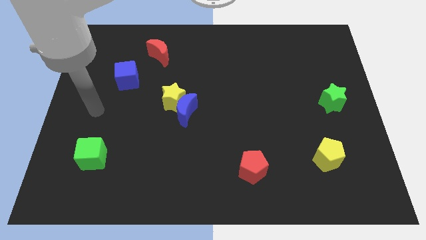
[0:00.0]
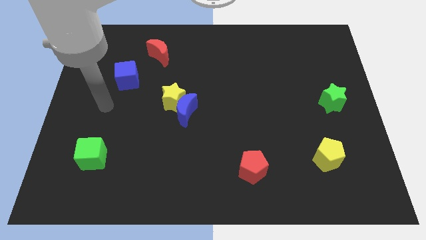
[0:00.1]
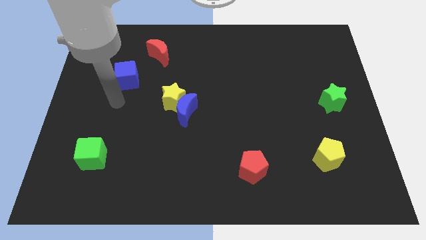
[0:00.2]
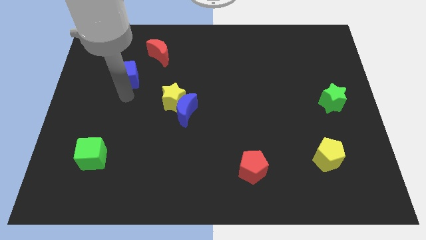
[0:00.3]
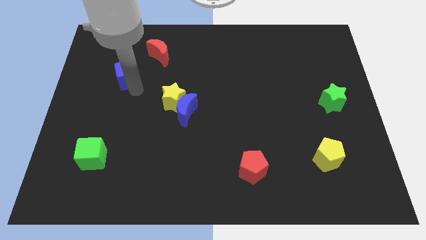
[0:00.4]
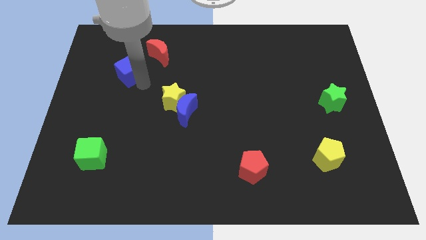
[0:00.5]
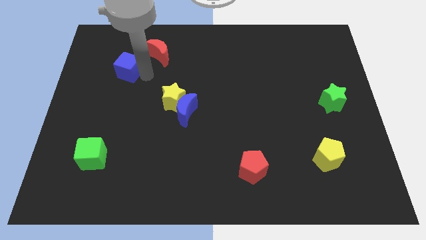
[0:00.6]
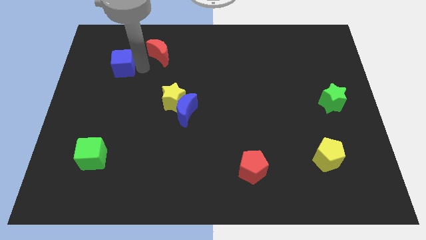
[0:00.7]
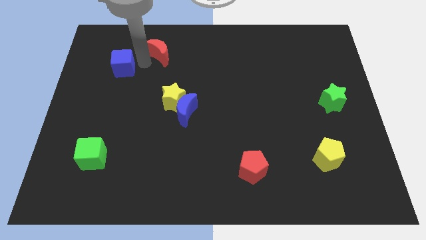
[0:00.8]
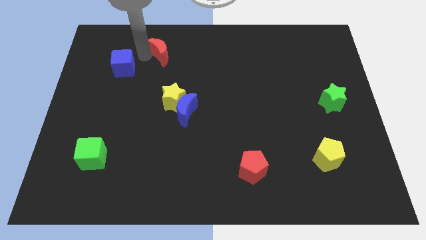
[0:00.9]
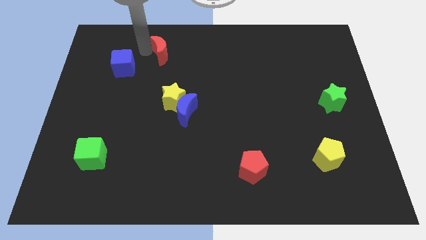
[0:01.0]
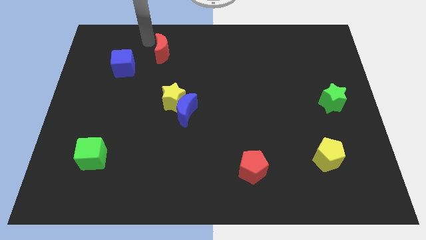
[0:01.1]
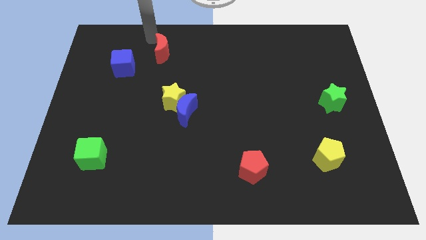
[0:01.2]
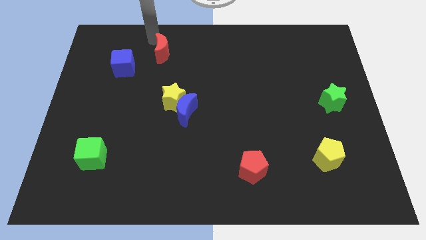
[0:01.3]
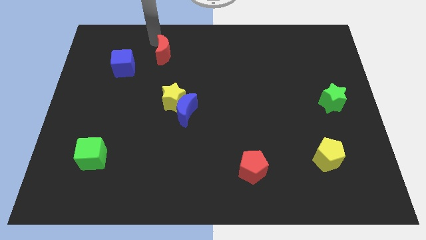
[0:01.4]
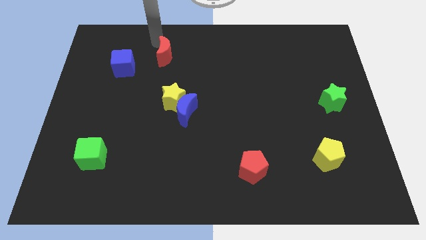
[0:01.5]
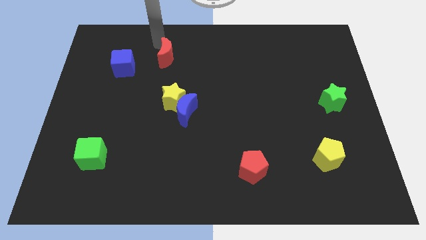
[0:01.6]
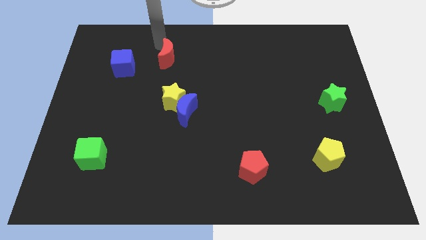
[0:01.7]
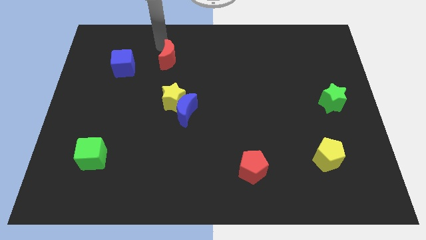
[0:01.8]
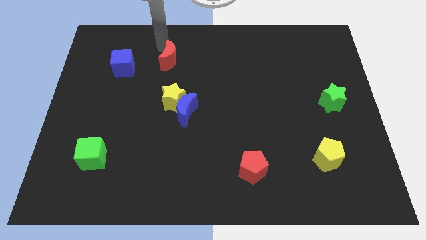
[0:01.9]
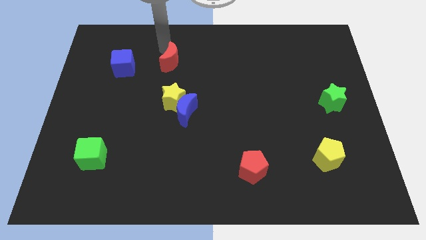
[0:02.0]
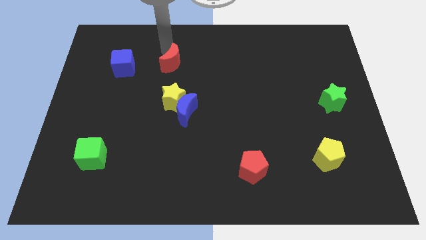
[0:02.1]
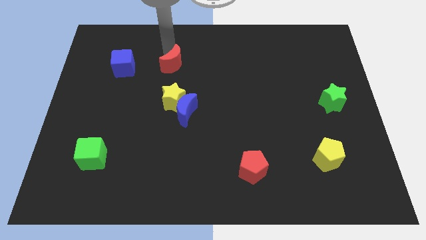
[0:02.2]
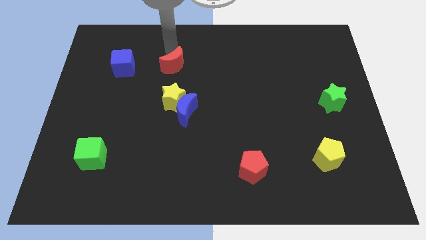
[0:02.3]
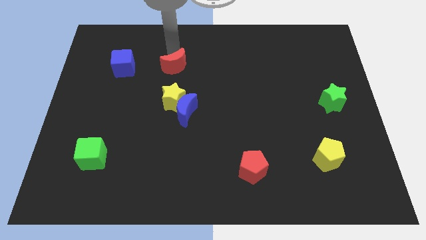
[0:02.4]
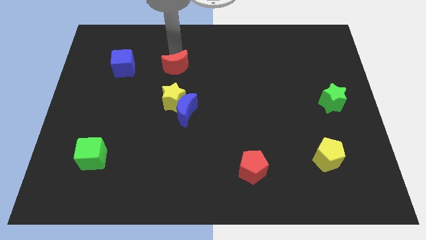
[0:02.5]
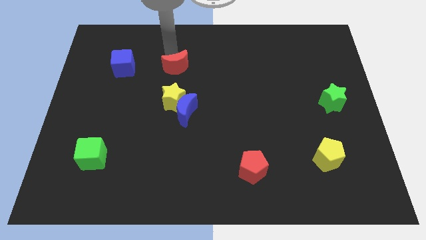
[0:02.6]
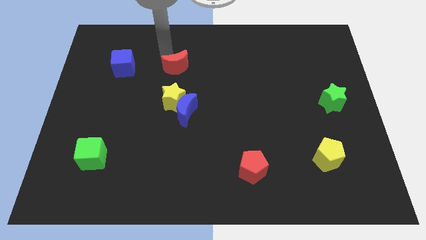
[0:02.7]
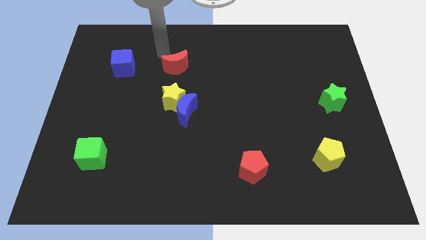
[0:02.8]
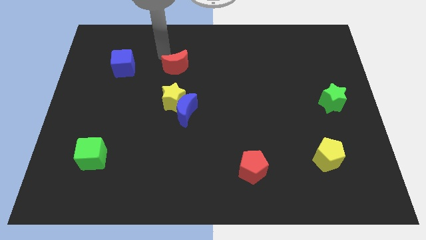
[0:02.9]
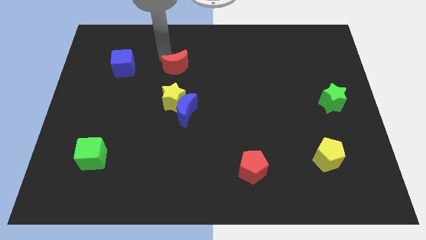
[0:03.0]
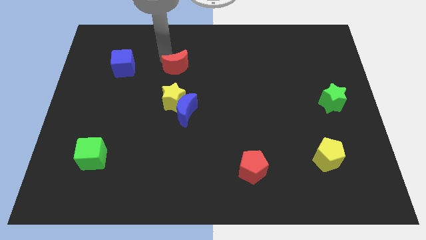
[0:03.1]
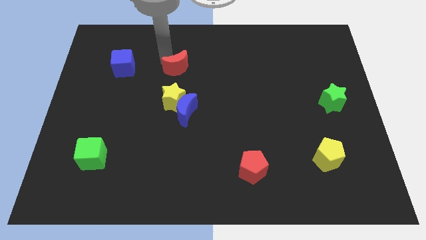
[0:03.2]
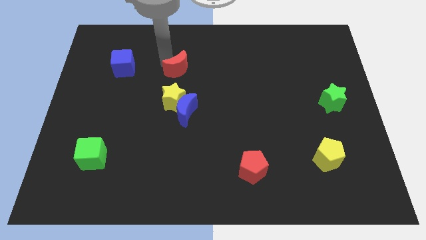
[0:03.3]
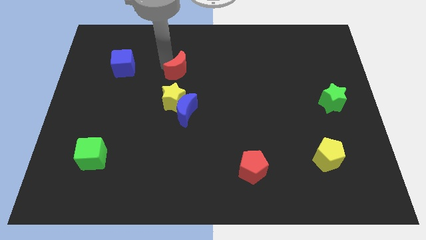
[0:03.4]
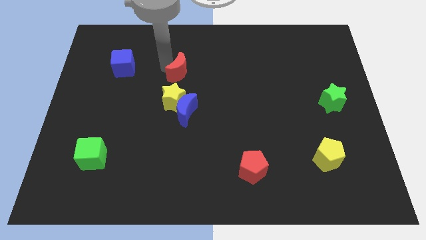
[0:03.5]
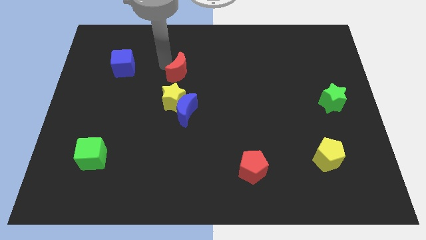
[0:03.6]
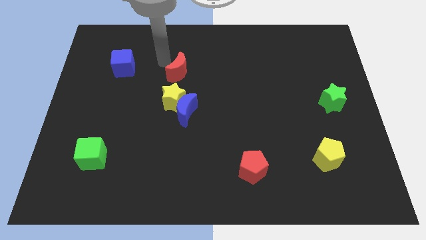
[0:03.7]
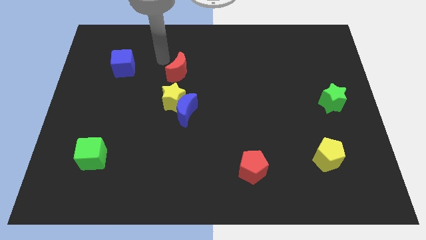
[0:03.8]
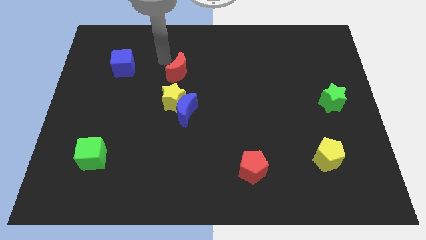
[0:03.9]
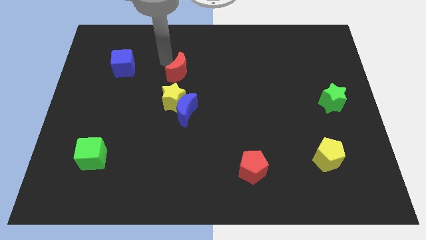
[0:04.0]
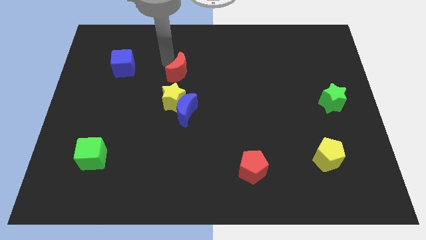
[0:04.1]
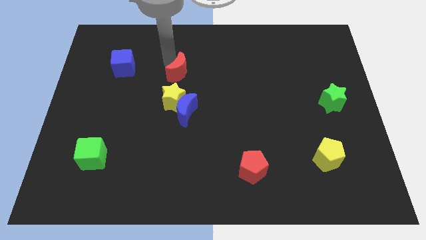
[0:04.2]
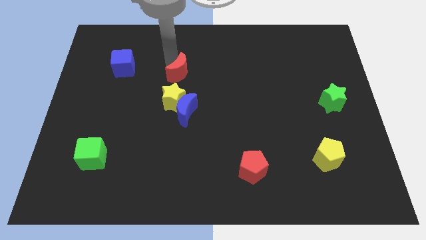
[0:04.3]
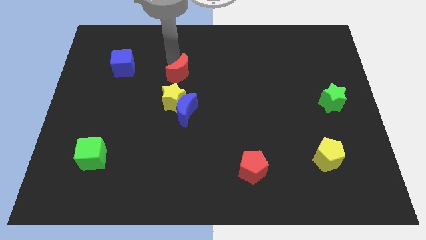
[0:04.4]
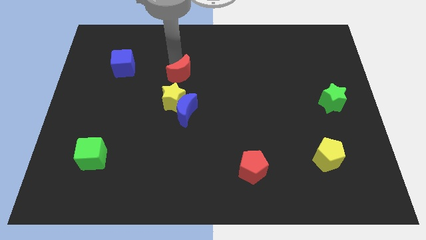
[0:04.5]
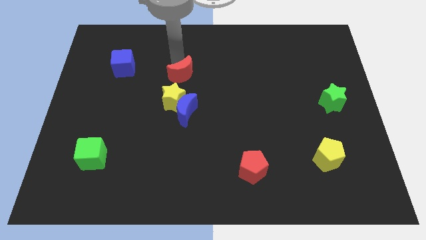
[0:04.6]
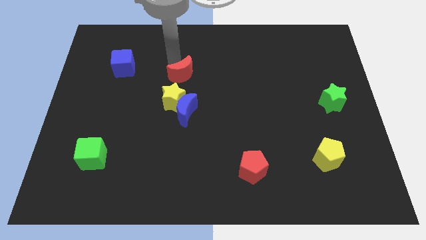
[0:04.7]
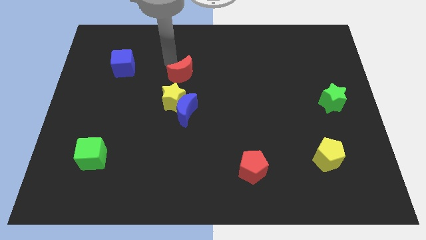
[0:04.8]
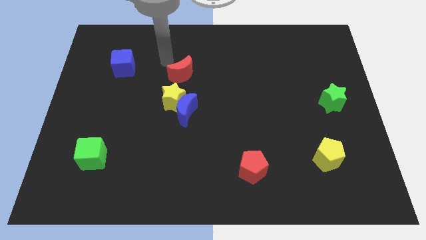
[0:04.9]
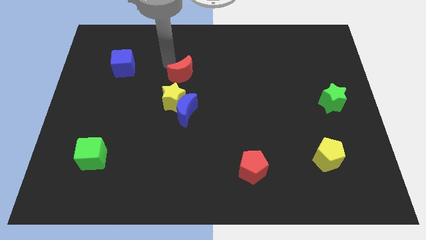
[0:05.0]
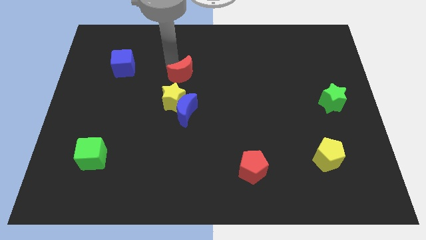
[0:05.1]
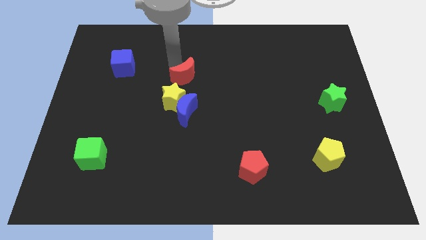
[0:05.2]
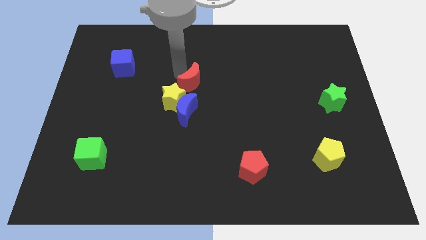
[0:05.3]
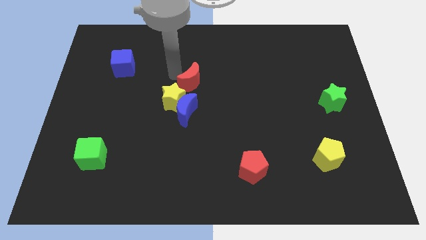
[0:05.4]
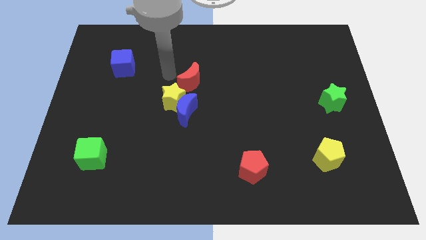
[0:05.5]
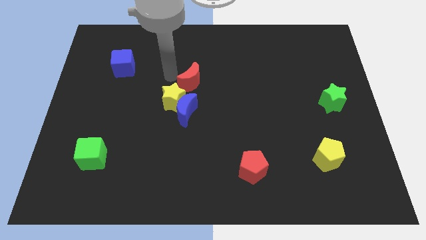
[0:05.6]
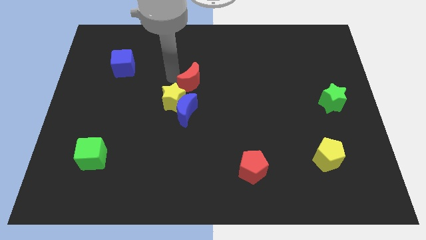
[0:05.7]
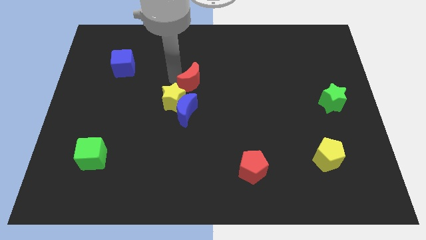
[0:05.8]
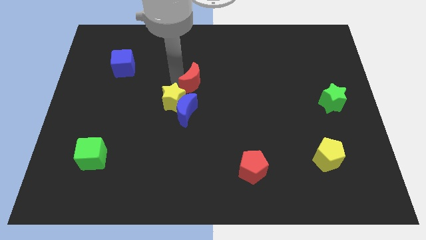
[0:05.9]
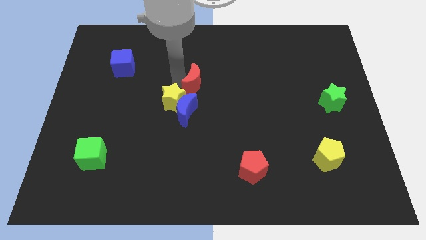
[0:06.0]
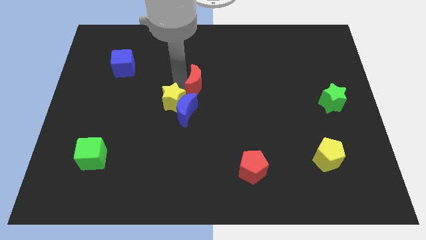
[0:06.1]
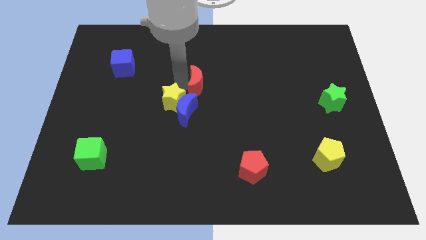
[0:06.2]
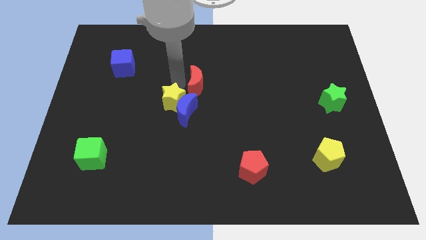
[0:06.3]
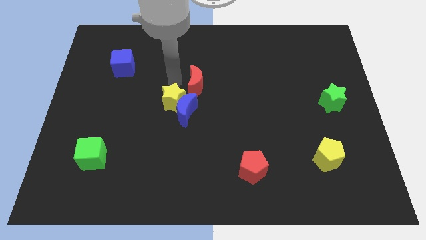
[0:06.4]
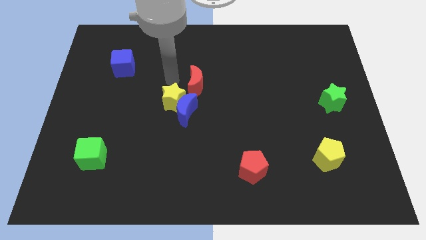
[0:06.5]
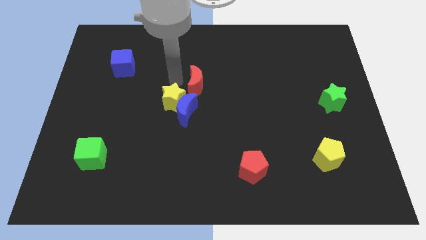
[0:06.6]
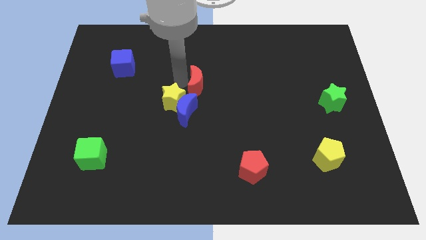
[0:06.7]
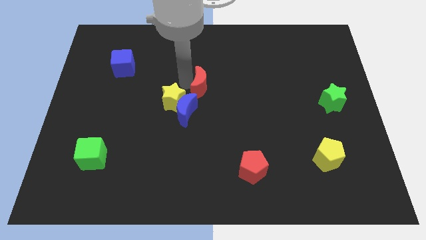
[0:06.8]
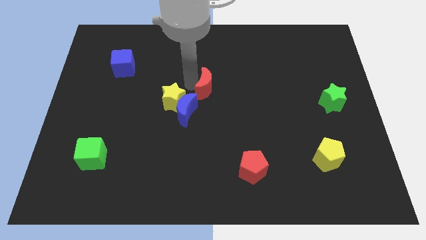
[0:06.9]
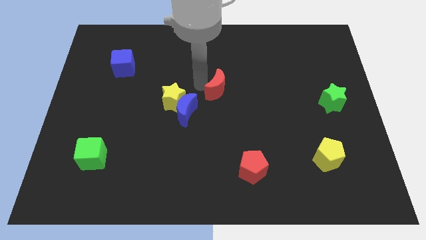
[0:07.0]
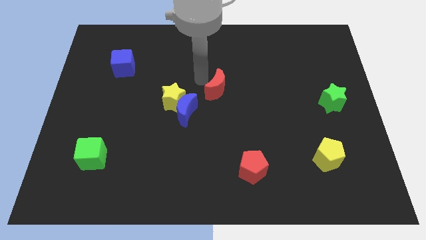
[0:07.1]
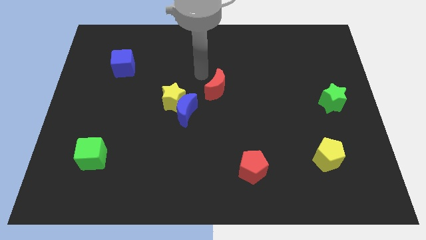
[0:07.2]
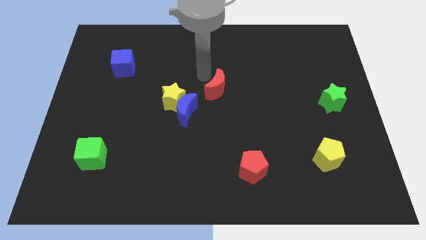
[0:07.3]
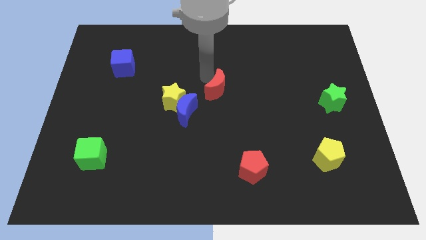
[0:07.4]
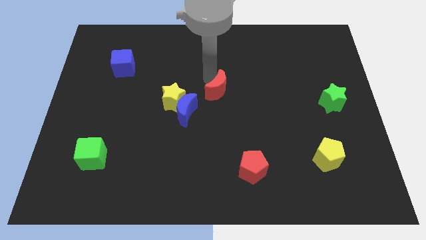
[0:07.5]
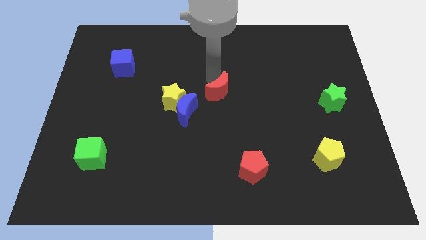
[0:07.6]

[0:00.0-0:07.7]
move the red moon downwards and right diagonally

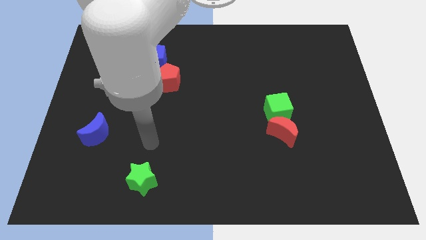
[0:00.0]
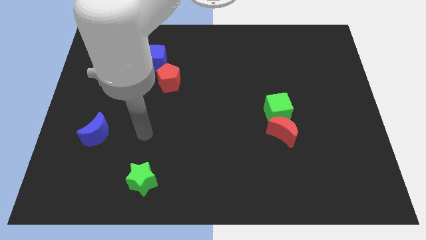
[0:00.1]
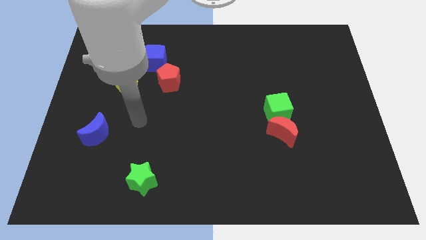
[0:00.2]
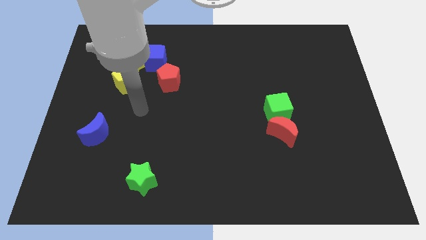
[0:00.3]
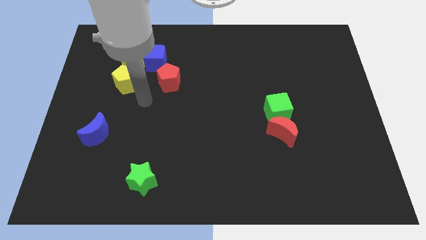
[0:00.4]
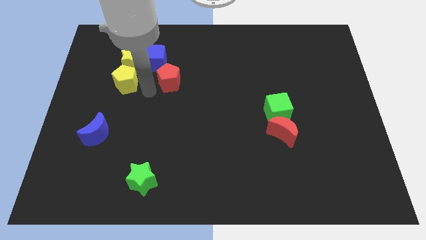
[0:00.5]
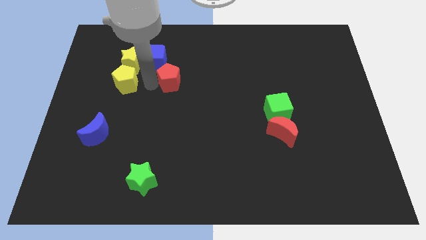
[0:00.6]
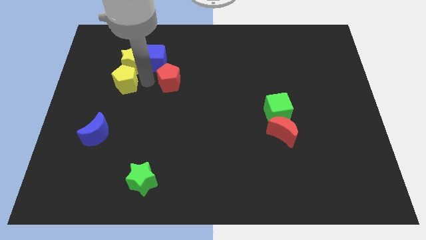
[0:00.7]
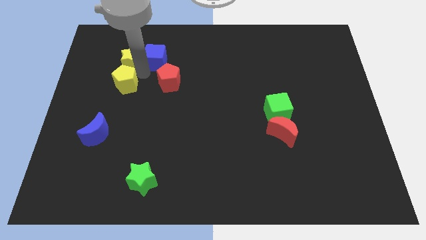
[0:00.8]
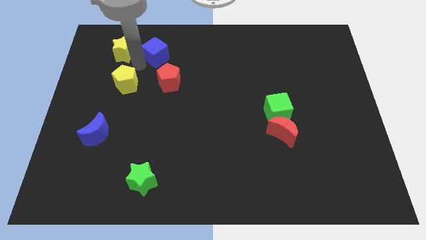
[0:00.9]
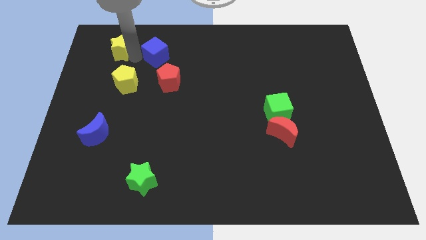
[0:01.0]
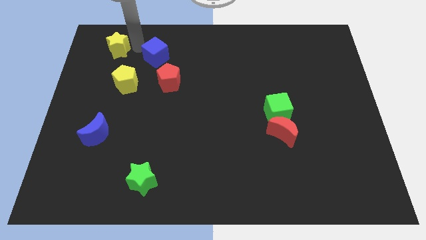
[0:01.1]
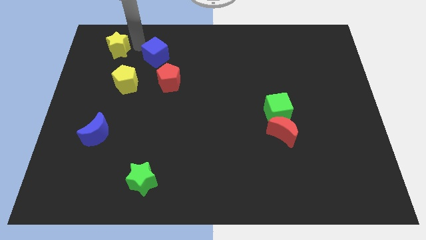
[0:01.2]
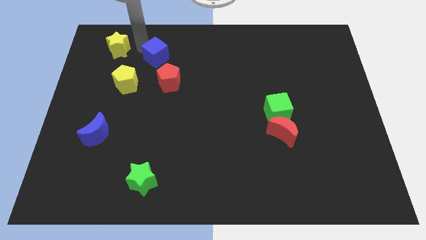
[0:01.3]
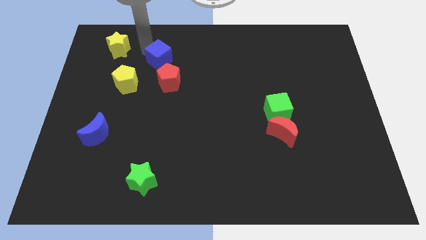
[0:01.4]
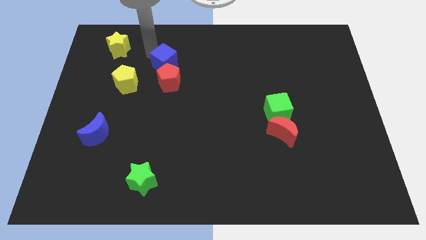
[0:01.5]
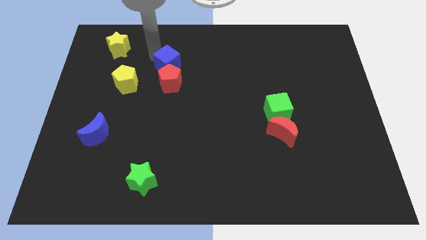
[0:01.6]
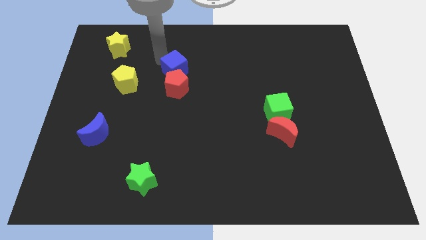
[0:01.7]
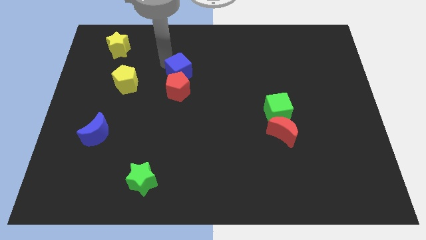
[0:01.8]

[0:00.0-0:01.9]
push the blue cube down and then right a little bit
